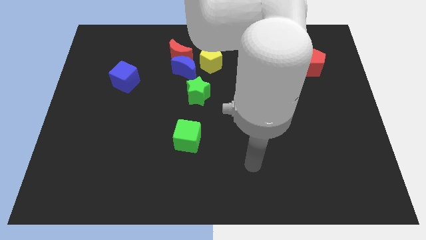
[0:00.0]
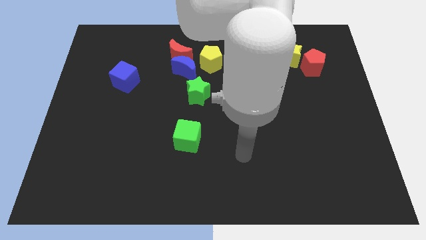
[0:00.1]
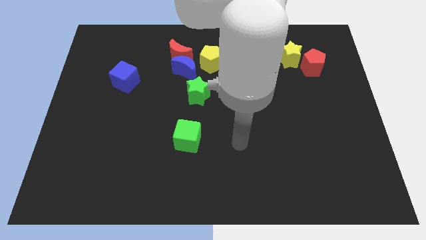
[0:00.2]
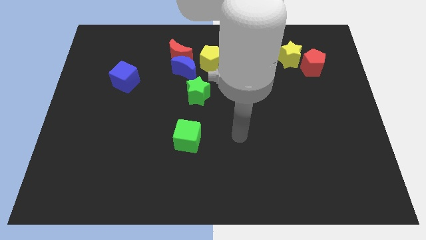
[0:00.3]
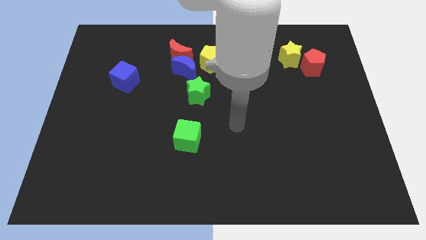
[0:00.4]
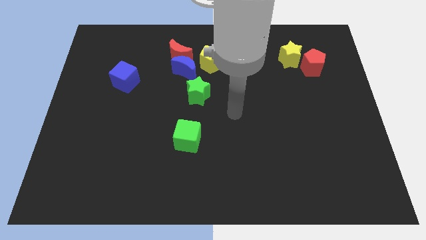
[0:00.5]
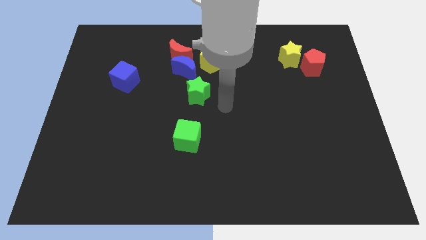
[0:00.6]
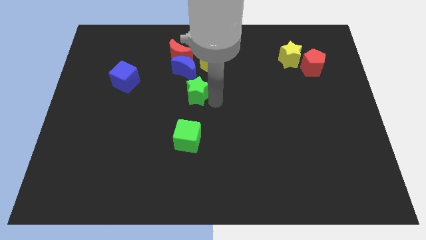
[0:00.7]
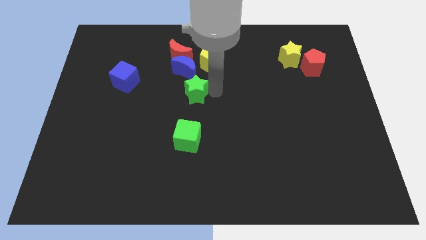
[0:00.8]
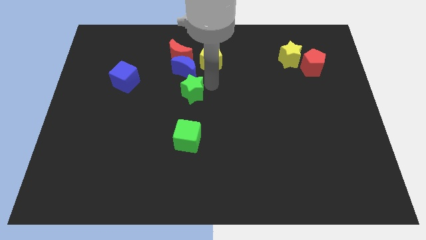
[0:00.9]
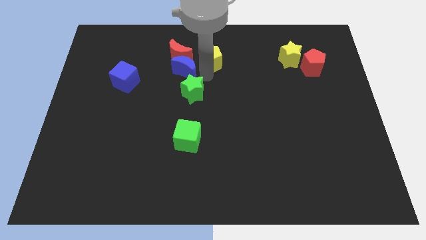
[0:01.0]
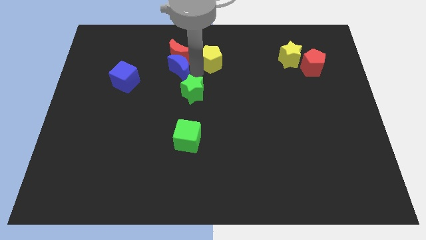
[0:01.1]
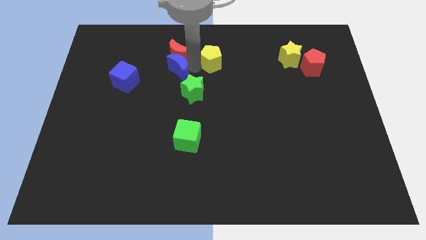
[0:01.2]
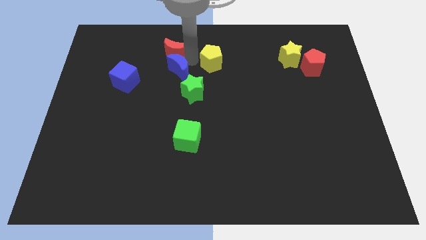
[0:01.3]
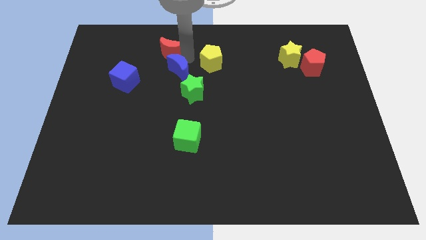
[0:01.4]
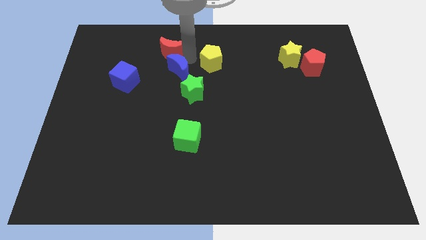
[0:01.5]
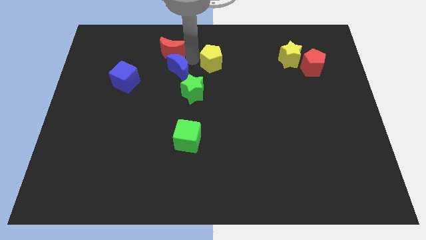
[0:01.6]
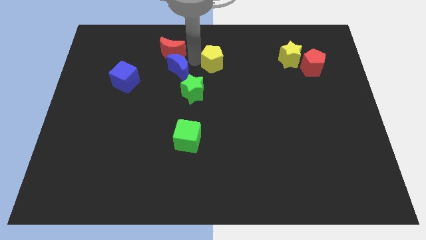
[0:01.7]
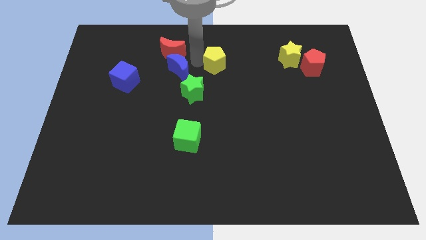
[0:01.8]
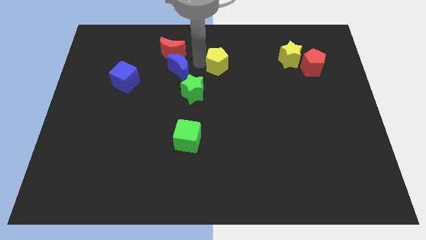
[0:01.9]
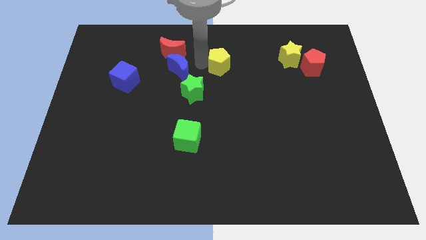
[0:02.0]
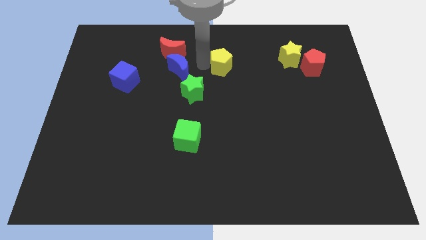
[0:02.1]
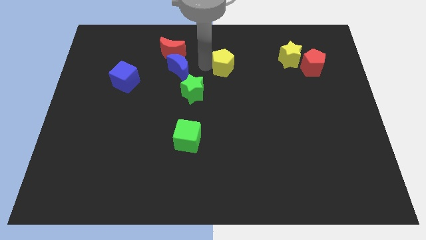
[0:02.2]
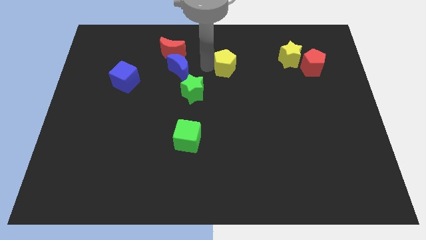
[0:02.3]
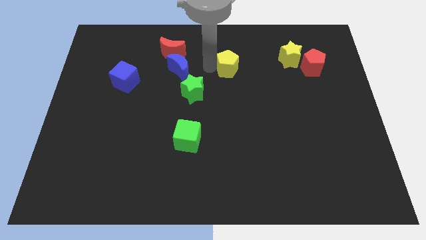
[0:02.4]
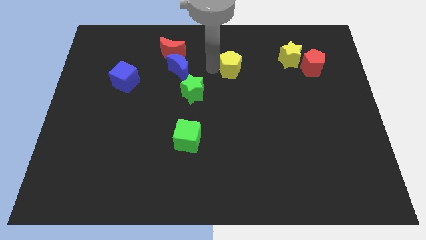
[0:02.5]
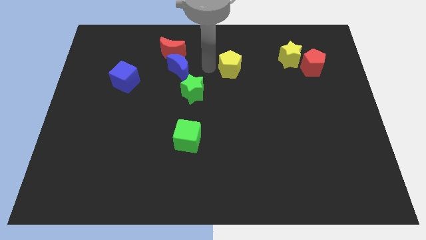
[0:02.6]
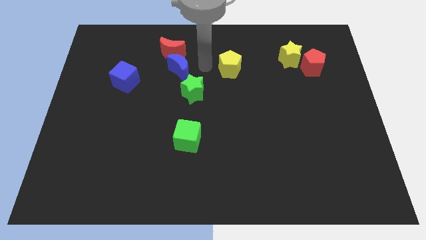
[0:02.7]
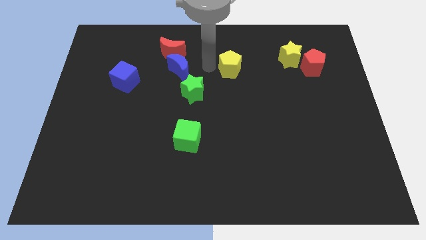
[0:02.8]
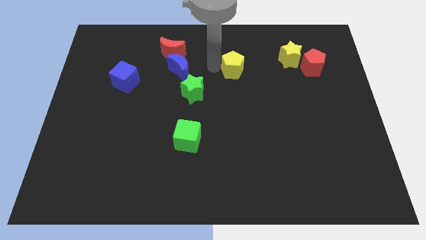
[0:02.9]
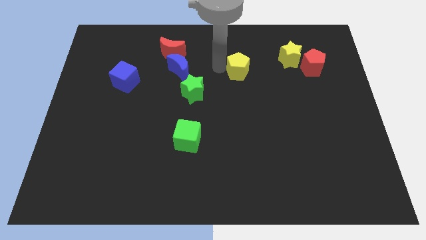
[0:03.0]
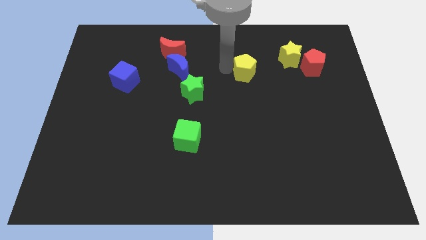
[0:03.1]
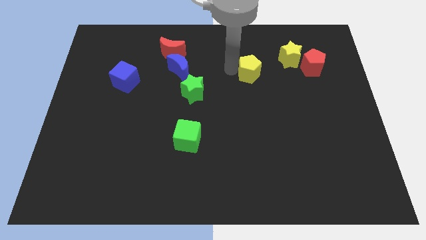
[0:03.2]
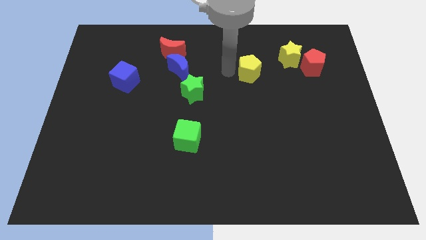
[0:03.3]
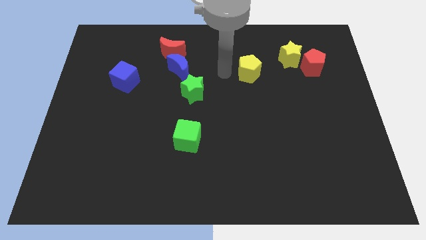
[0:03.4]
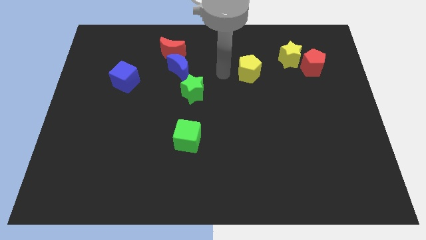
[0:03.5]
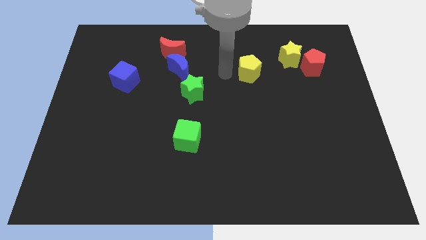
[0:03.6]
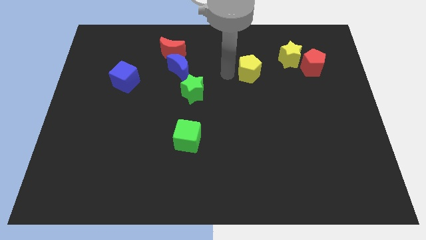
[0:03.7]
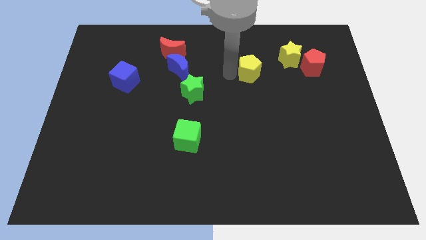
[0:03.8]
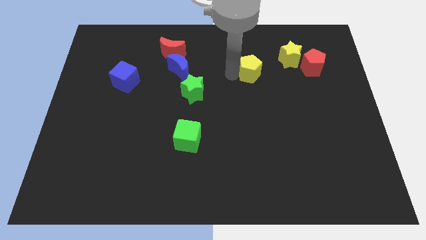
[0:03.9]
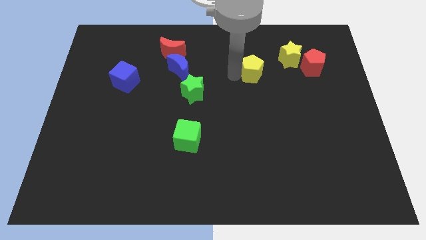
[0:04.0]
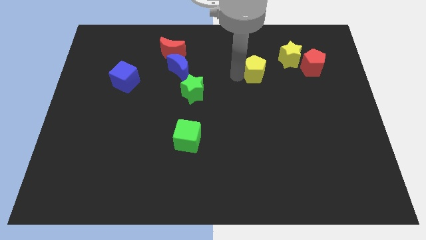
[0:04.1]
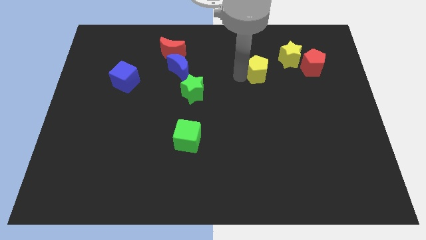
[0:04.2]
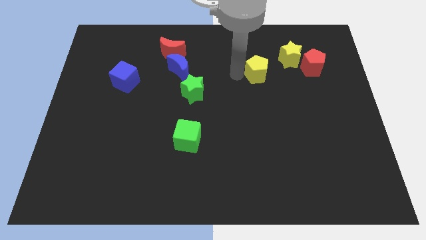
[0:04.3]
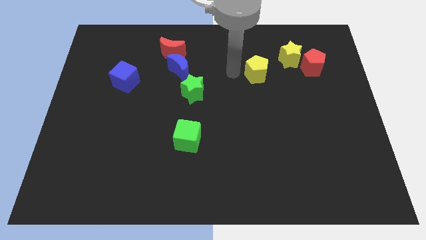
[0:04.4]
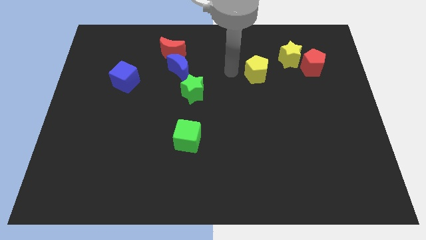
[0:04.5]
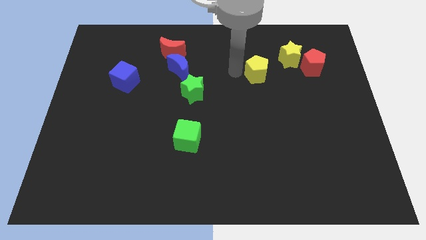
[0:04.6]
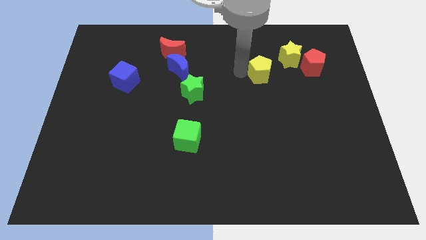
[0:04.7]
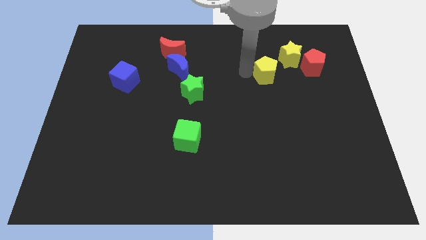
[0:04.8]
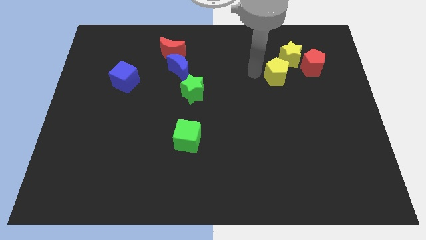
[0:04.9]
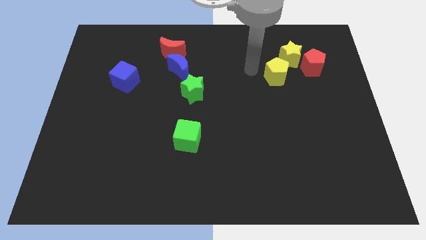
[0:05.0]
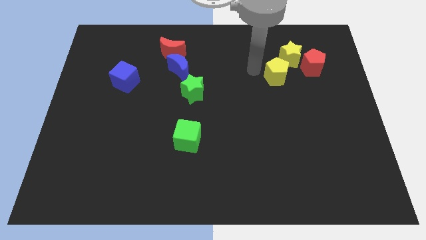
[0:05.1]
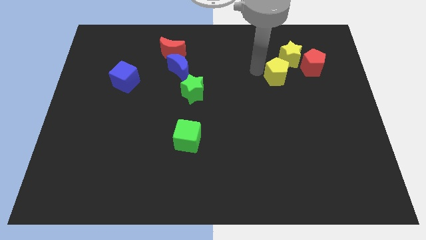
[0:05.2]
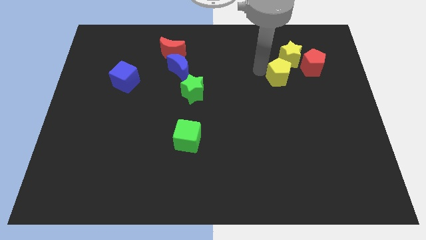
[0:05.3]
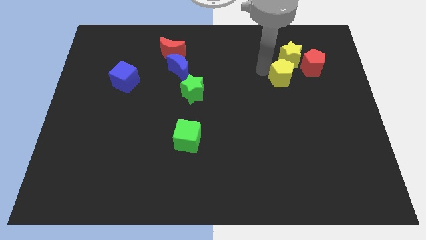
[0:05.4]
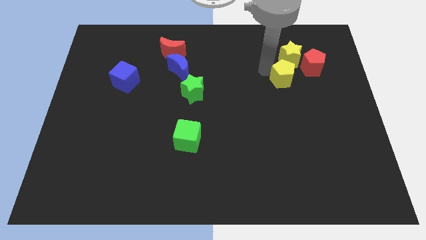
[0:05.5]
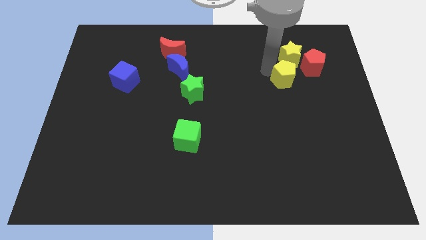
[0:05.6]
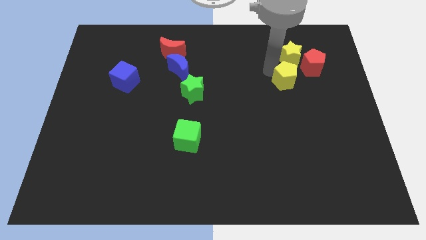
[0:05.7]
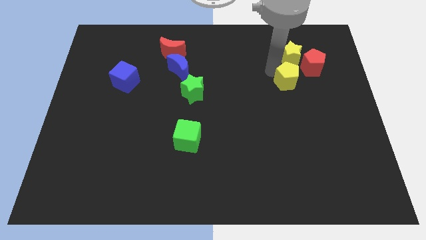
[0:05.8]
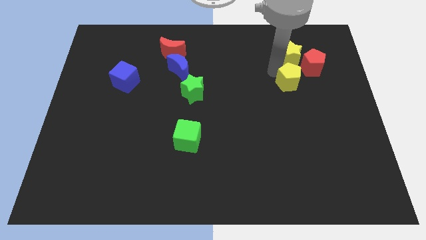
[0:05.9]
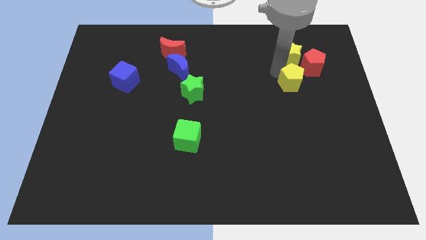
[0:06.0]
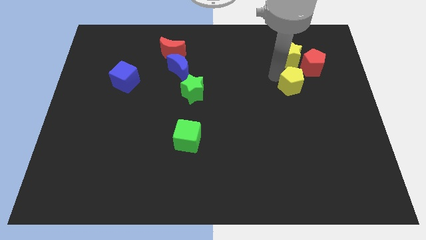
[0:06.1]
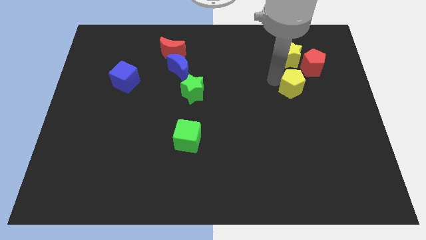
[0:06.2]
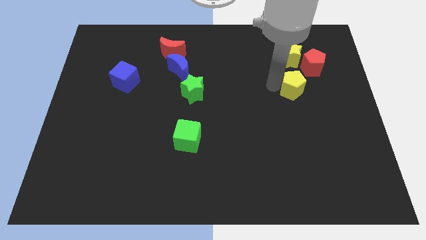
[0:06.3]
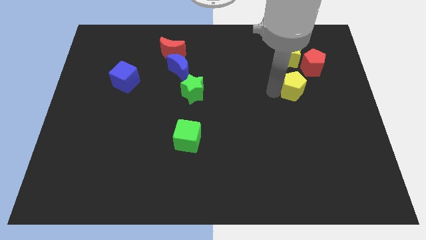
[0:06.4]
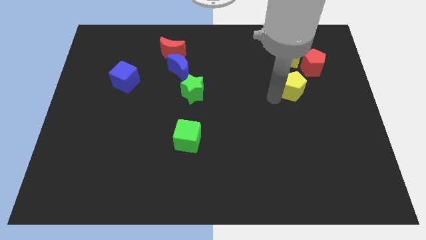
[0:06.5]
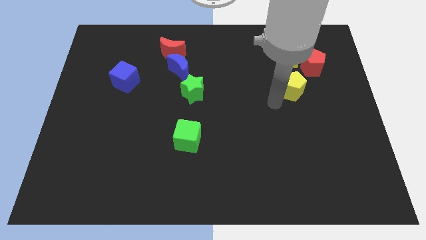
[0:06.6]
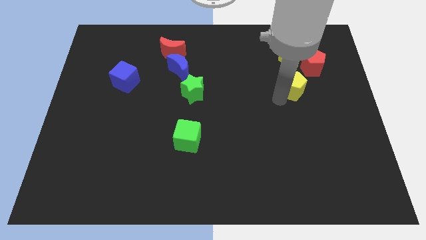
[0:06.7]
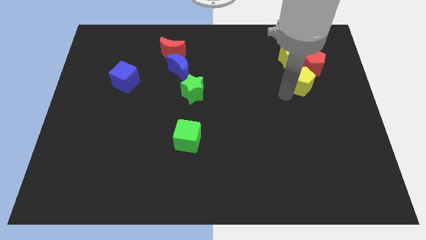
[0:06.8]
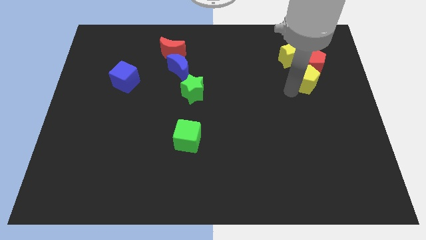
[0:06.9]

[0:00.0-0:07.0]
push the yellow pentagon diagonally down and to the right of the yellow star
